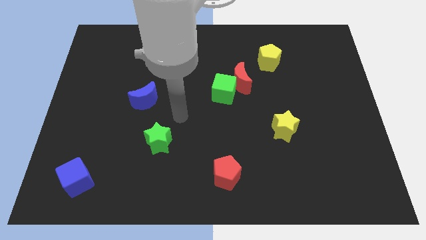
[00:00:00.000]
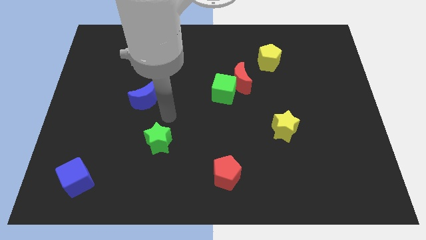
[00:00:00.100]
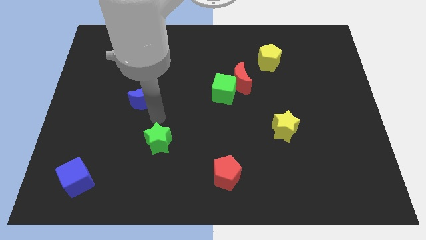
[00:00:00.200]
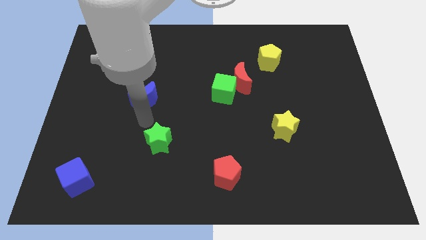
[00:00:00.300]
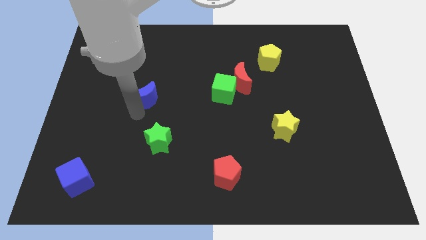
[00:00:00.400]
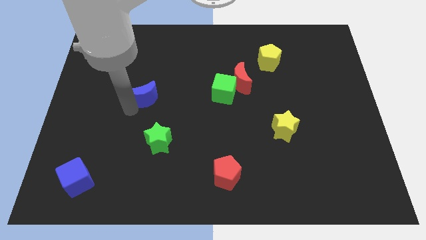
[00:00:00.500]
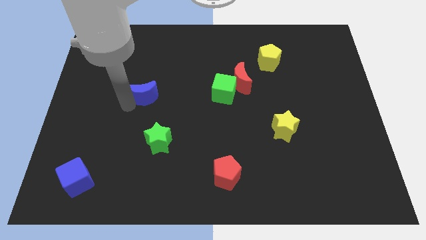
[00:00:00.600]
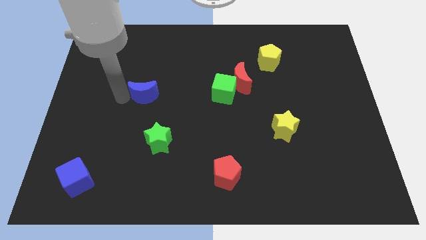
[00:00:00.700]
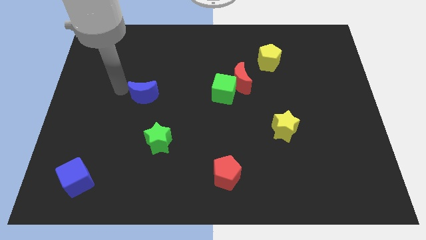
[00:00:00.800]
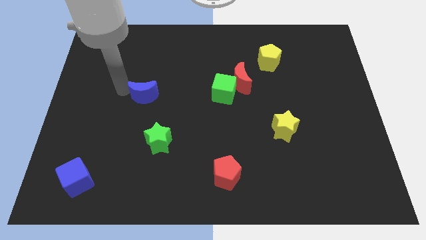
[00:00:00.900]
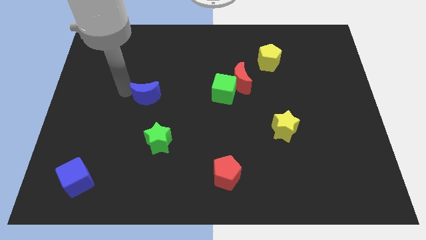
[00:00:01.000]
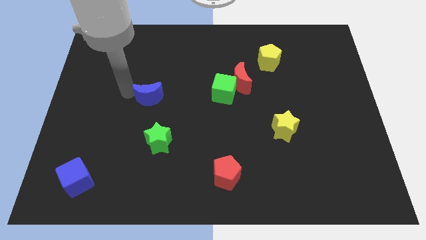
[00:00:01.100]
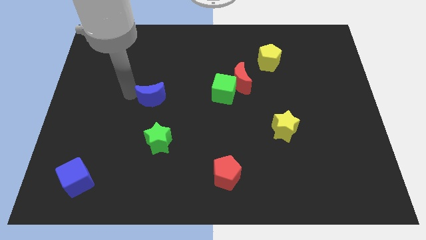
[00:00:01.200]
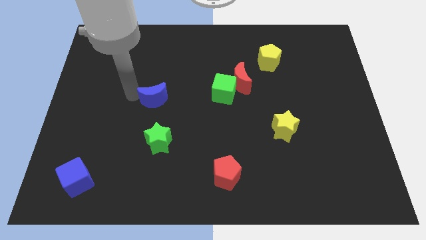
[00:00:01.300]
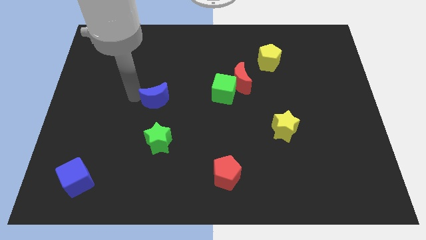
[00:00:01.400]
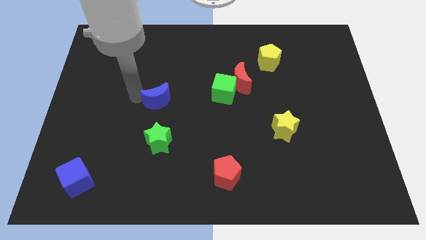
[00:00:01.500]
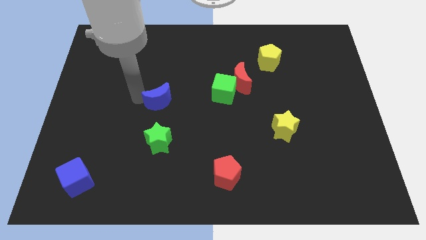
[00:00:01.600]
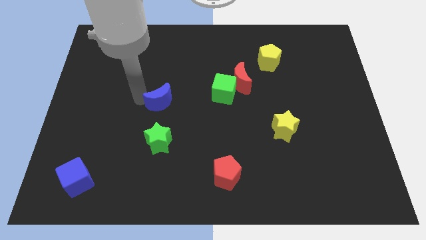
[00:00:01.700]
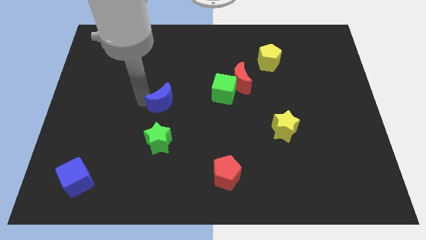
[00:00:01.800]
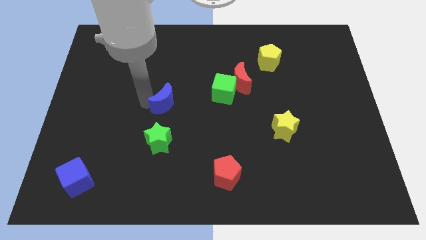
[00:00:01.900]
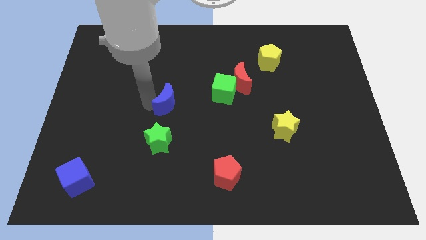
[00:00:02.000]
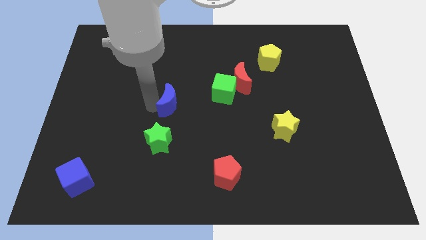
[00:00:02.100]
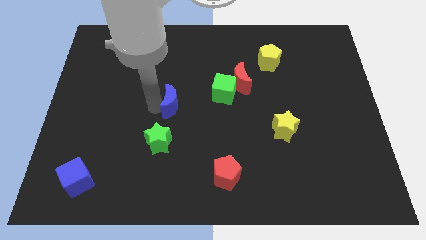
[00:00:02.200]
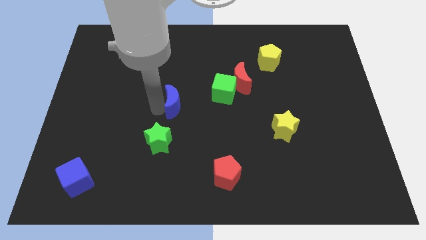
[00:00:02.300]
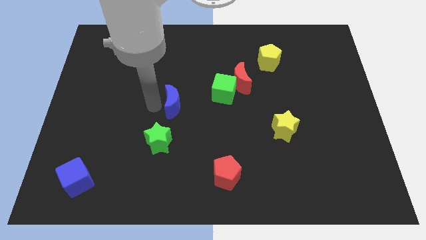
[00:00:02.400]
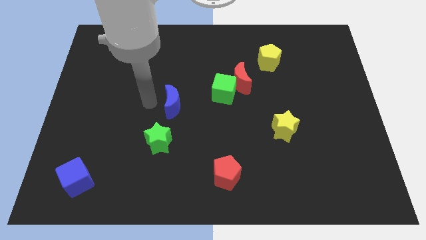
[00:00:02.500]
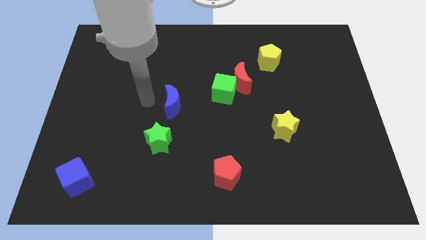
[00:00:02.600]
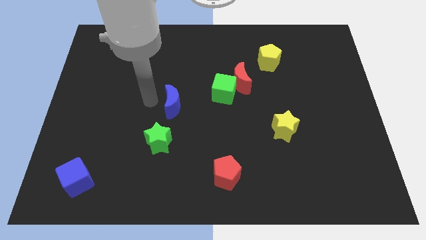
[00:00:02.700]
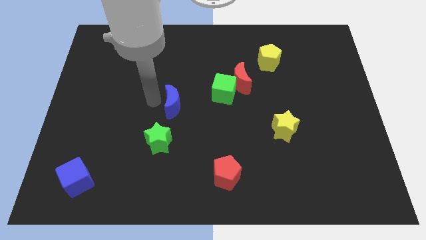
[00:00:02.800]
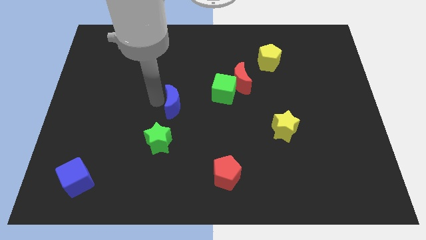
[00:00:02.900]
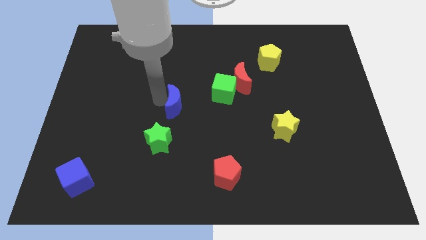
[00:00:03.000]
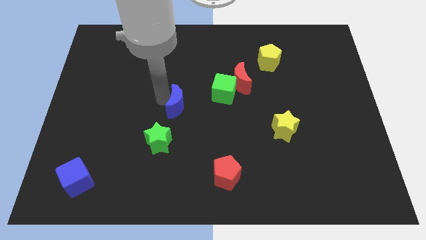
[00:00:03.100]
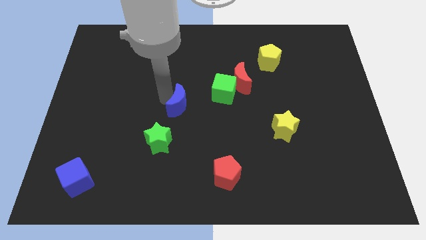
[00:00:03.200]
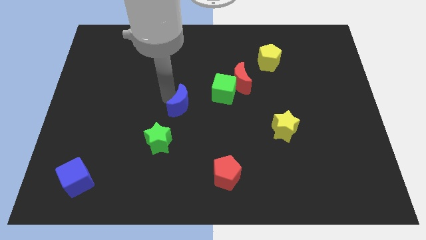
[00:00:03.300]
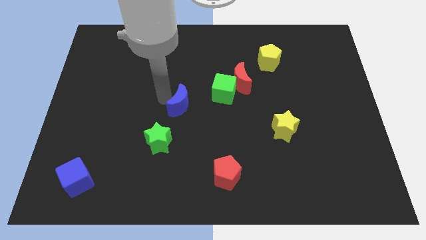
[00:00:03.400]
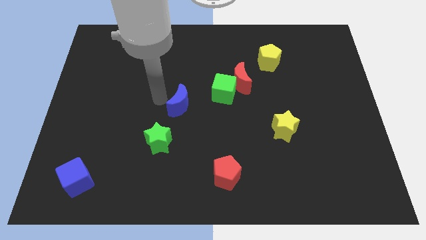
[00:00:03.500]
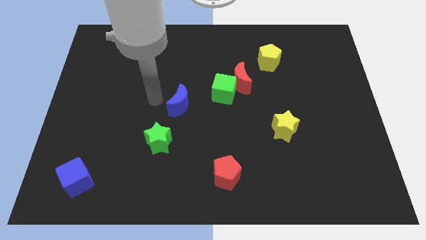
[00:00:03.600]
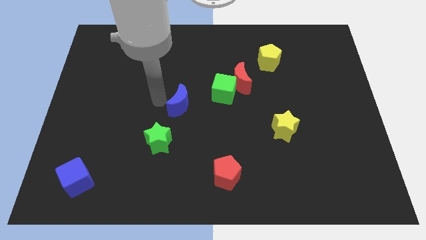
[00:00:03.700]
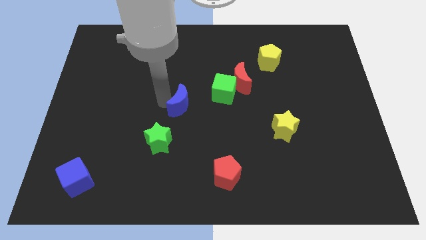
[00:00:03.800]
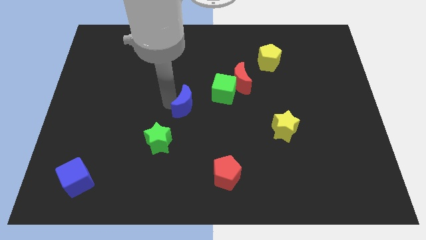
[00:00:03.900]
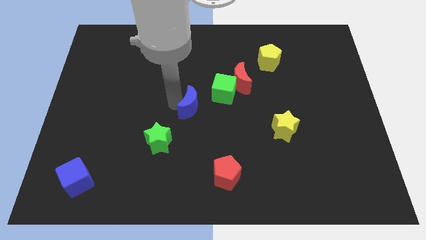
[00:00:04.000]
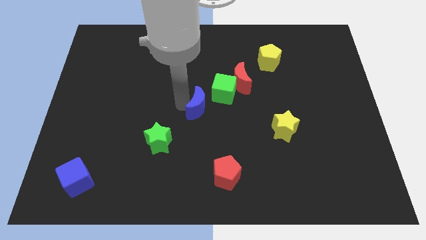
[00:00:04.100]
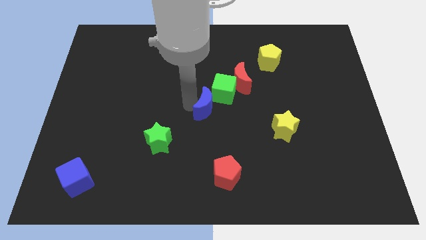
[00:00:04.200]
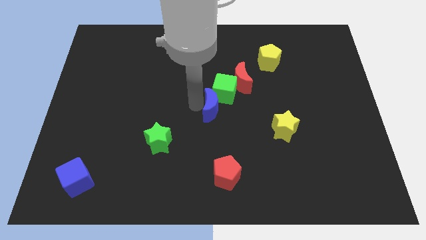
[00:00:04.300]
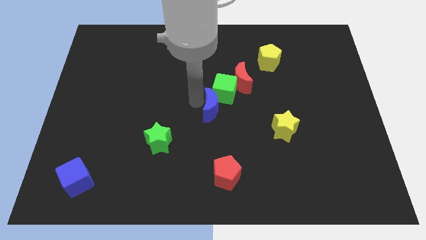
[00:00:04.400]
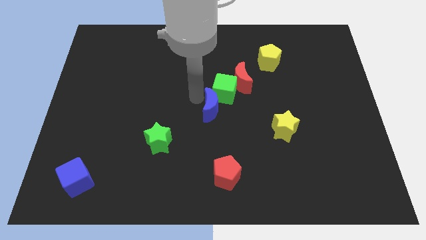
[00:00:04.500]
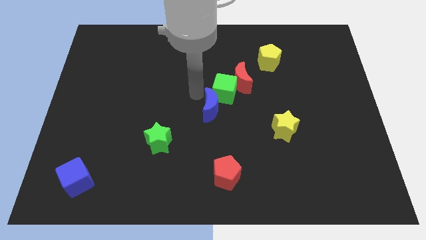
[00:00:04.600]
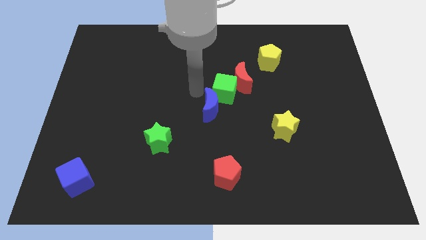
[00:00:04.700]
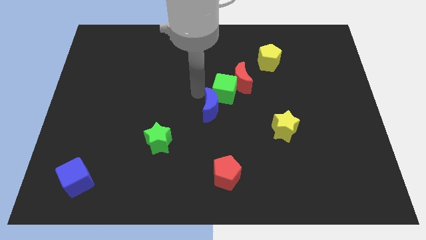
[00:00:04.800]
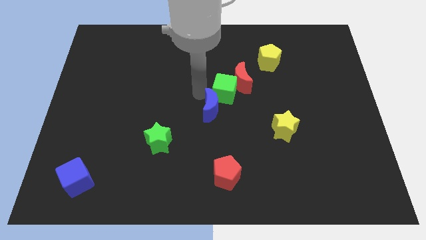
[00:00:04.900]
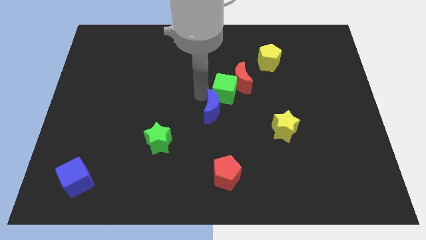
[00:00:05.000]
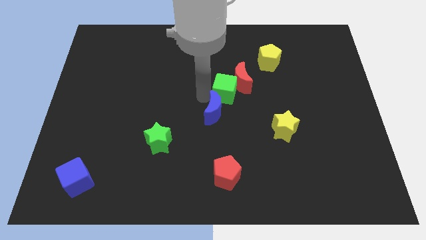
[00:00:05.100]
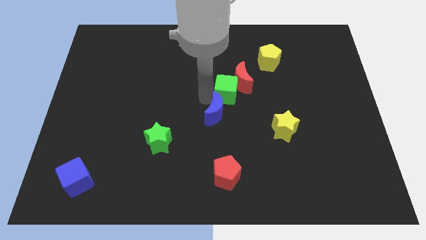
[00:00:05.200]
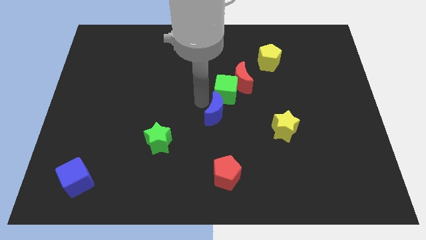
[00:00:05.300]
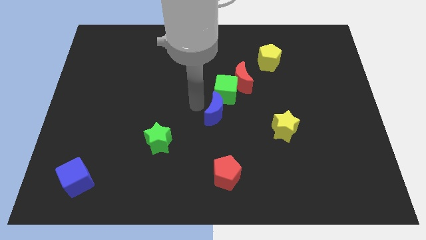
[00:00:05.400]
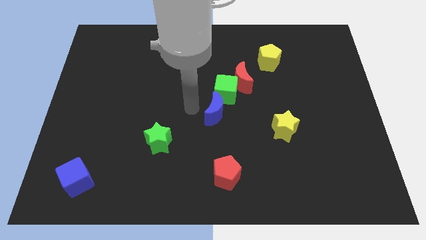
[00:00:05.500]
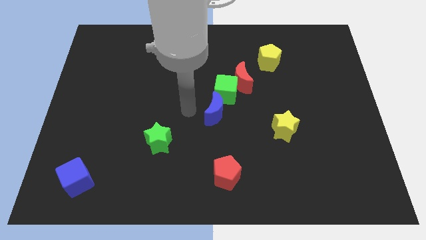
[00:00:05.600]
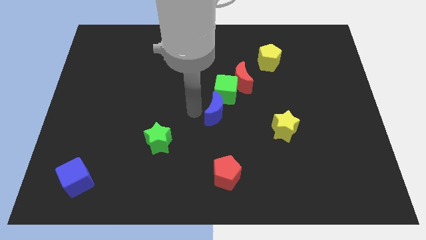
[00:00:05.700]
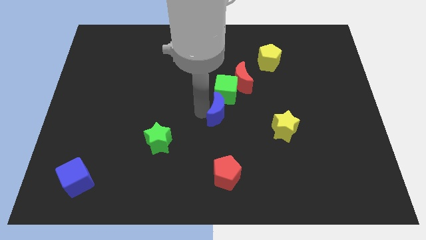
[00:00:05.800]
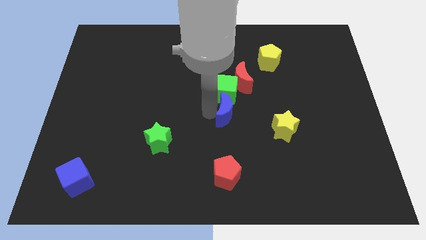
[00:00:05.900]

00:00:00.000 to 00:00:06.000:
slide the blue moon to the bottom side of the red moon
